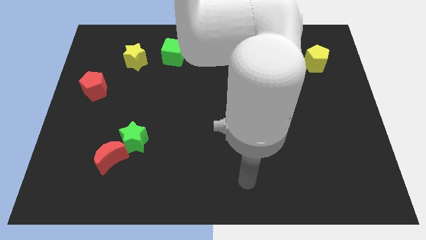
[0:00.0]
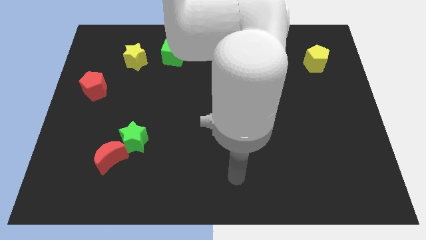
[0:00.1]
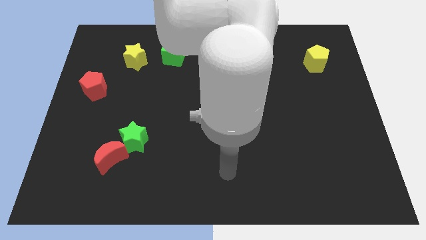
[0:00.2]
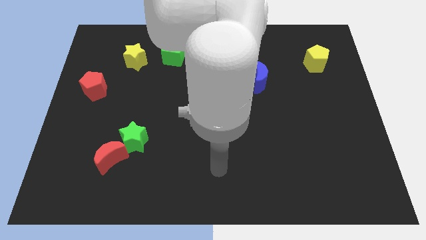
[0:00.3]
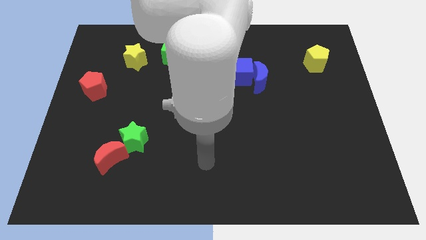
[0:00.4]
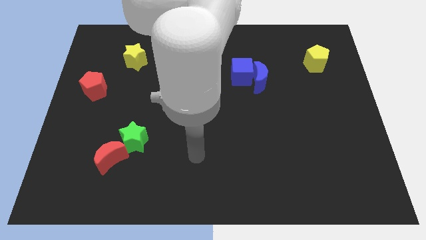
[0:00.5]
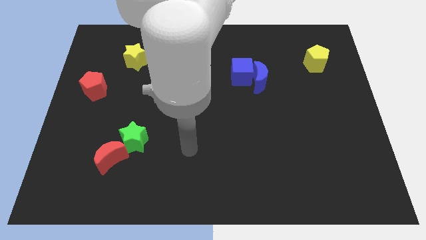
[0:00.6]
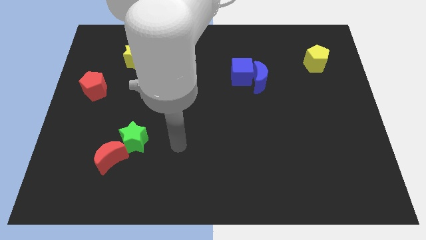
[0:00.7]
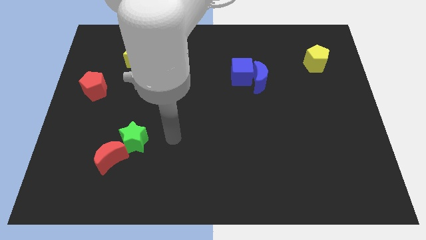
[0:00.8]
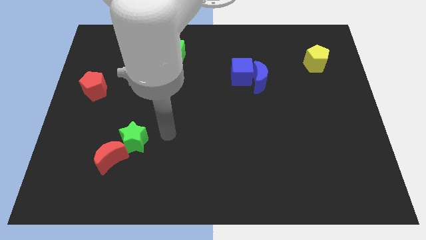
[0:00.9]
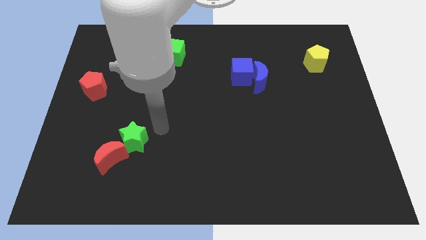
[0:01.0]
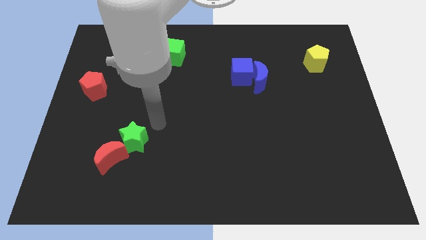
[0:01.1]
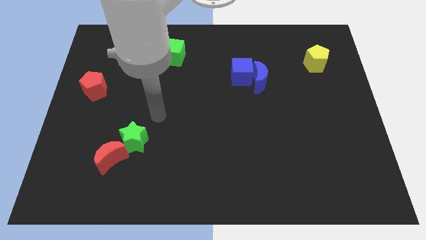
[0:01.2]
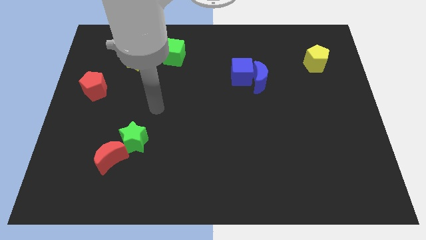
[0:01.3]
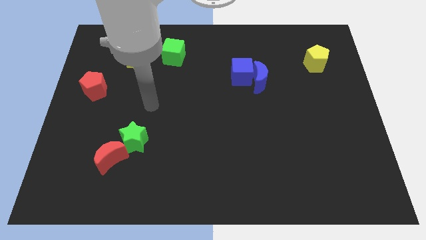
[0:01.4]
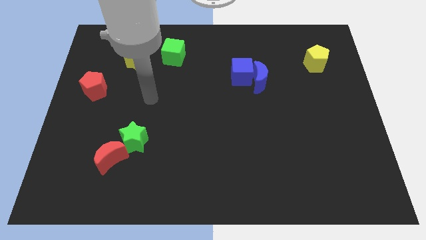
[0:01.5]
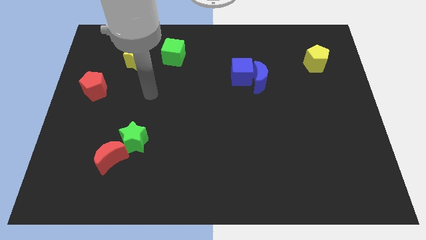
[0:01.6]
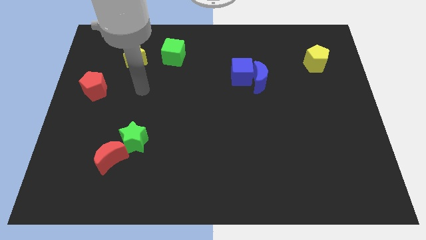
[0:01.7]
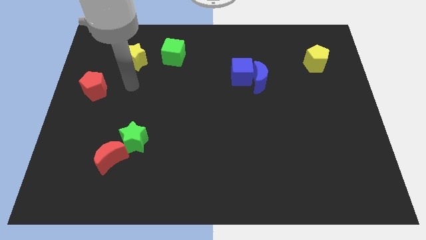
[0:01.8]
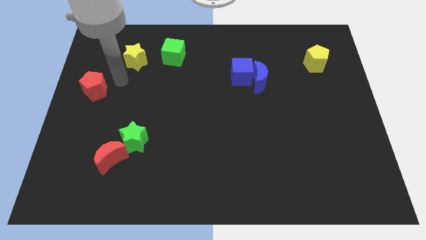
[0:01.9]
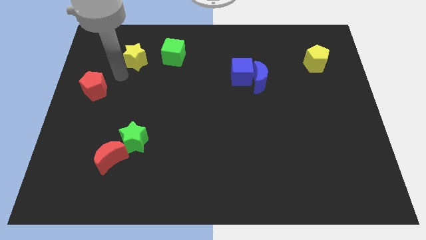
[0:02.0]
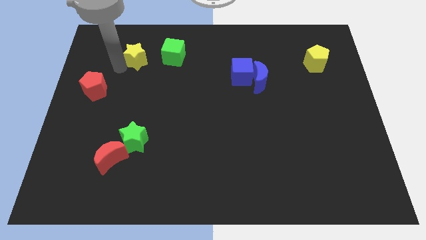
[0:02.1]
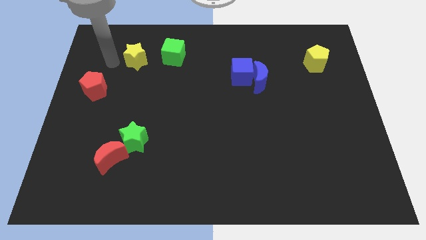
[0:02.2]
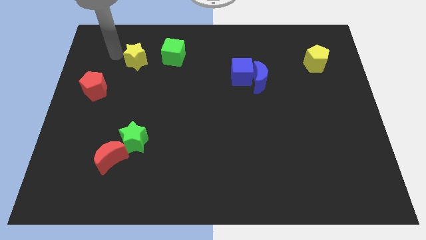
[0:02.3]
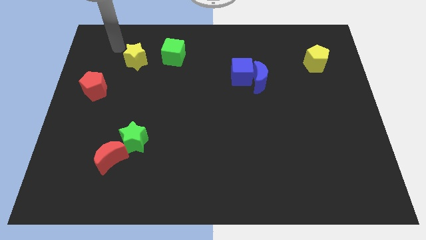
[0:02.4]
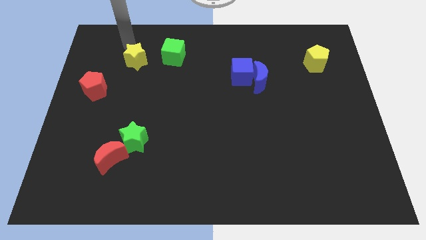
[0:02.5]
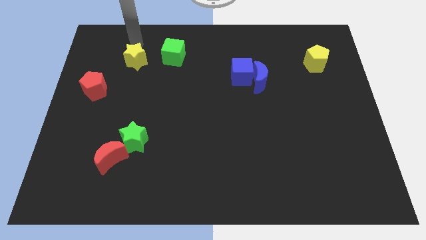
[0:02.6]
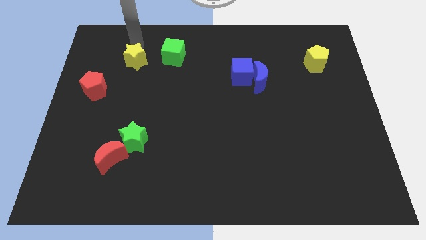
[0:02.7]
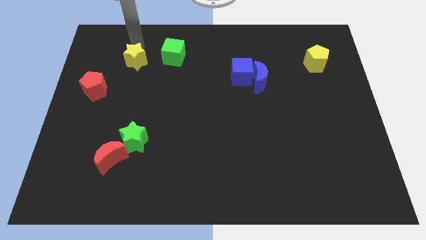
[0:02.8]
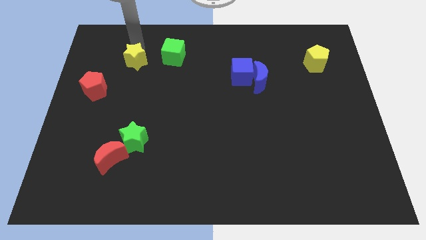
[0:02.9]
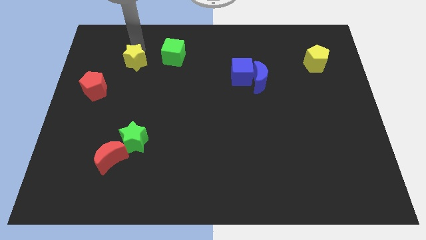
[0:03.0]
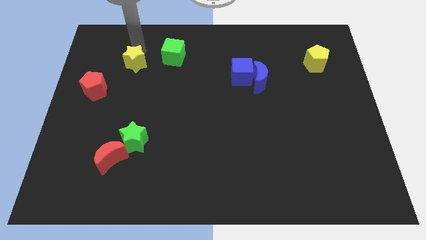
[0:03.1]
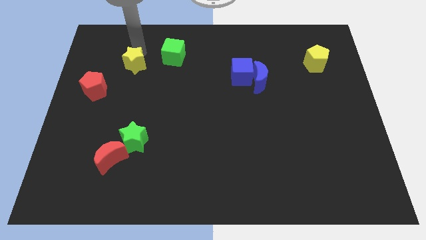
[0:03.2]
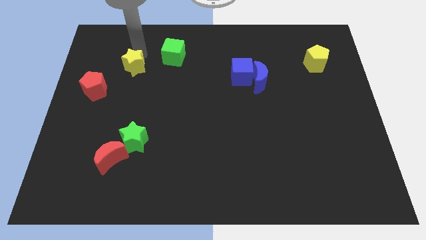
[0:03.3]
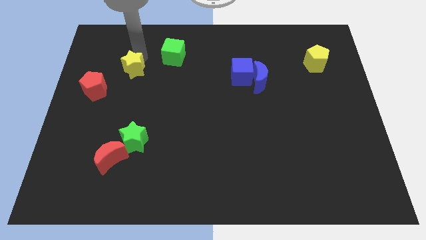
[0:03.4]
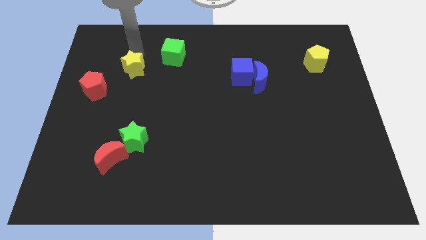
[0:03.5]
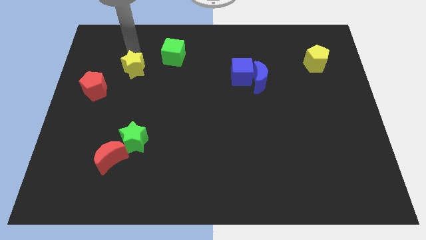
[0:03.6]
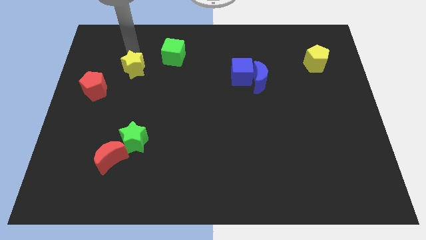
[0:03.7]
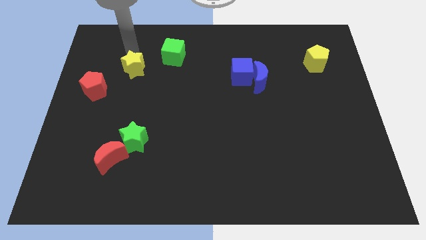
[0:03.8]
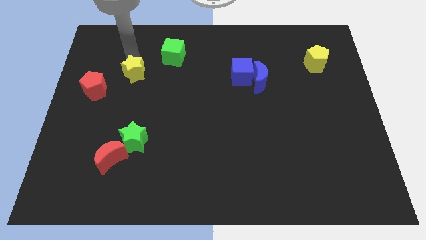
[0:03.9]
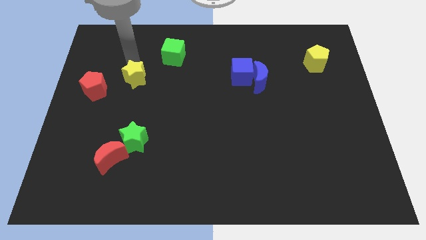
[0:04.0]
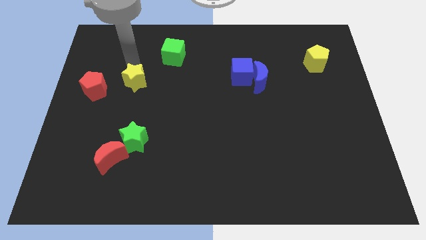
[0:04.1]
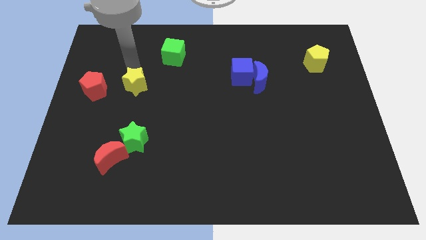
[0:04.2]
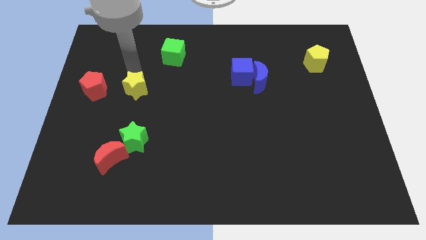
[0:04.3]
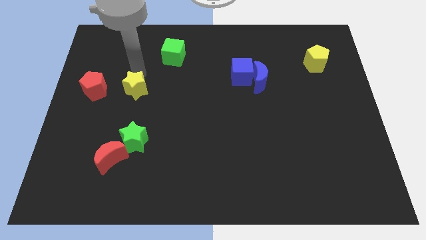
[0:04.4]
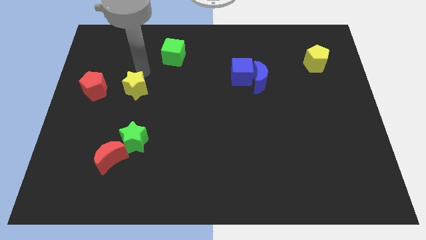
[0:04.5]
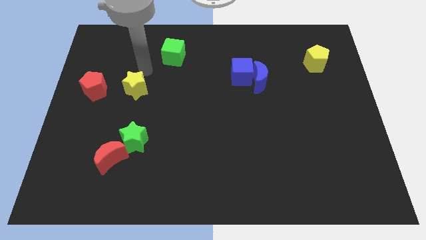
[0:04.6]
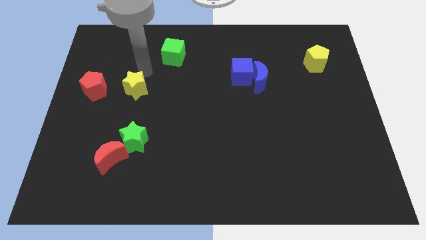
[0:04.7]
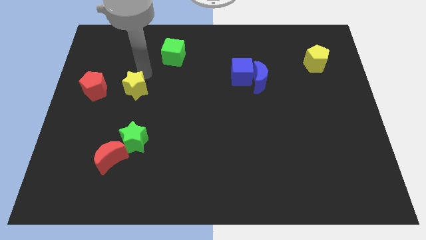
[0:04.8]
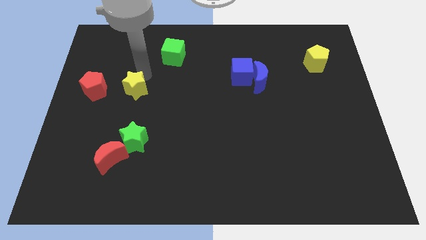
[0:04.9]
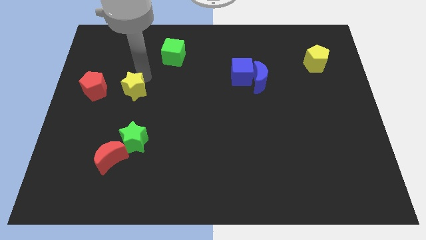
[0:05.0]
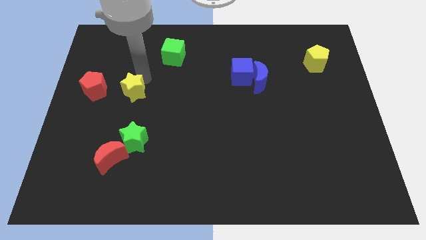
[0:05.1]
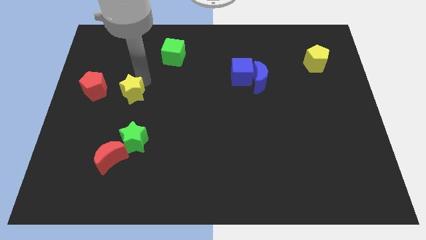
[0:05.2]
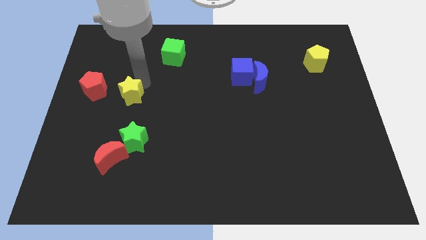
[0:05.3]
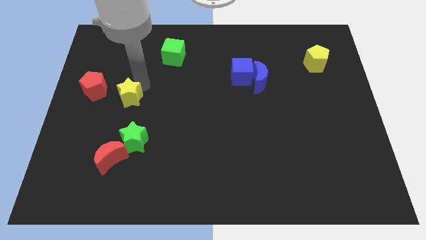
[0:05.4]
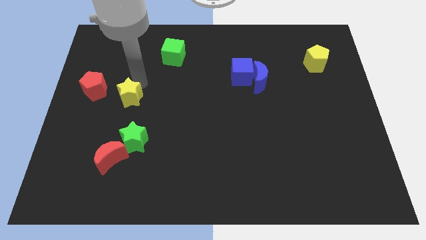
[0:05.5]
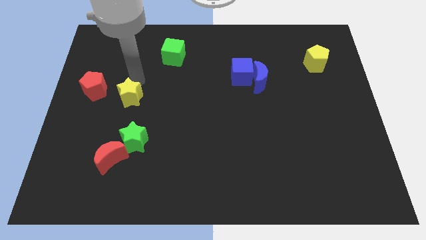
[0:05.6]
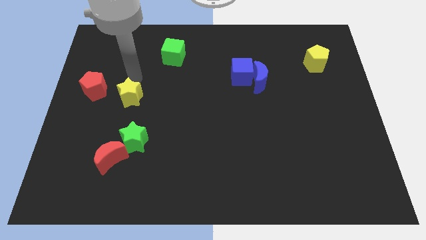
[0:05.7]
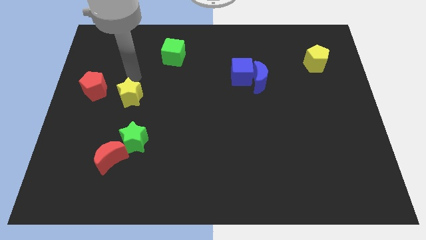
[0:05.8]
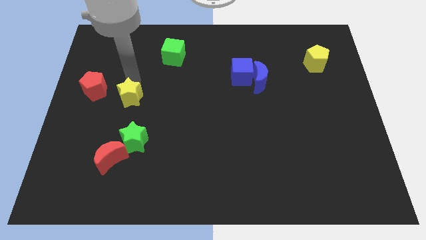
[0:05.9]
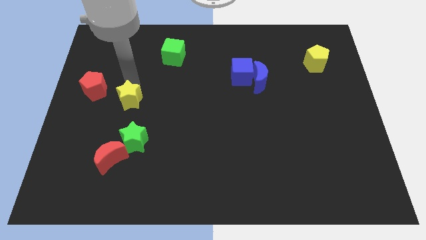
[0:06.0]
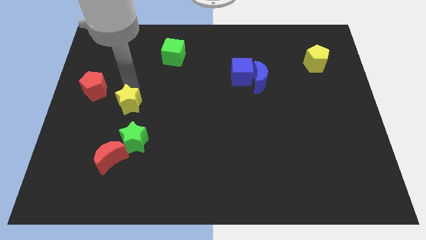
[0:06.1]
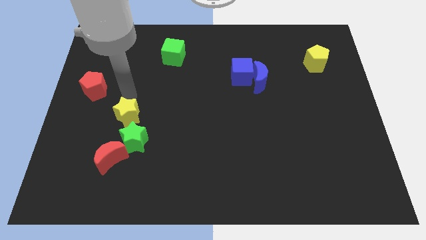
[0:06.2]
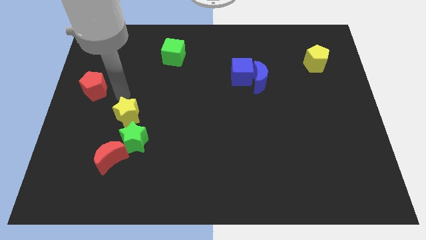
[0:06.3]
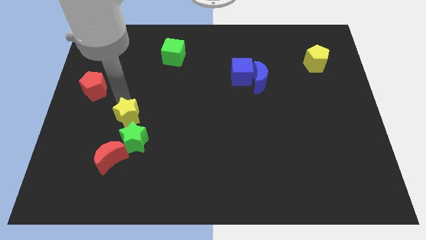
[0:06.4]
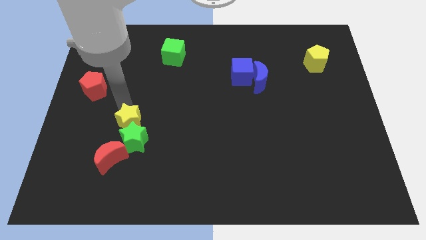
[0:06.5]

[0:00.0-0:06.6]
push the yellow star towards the green star
